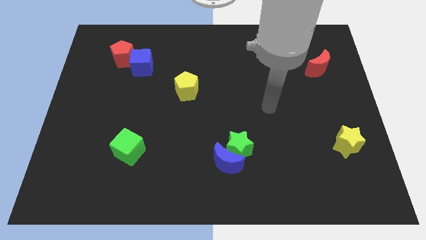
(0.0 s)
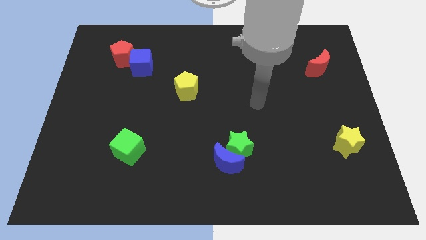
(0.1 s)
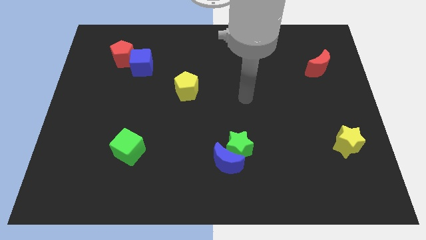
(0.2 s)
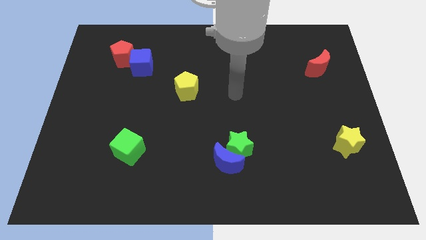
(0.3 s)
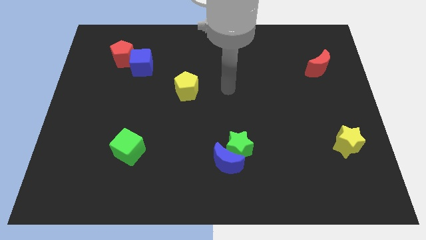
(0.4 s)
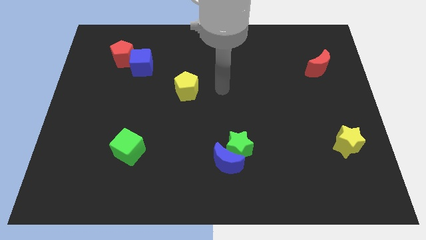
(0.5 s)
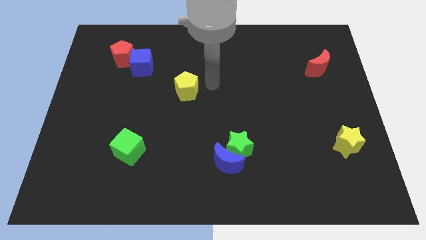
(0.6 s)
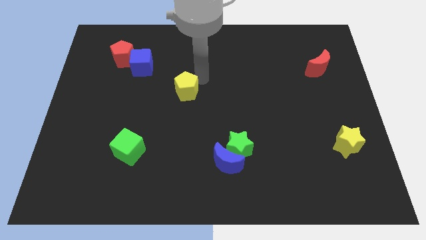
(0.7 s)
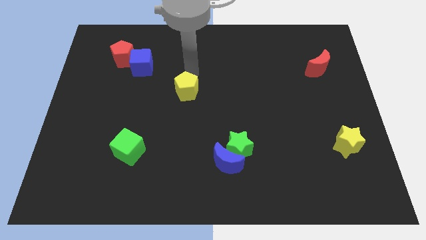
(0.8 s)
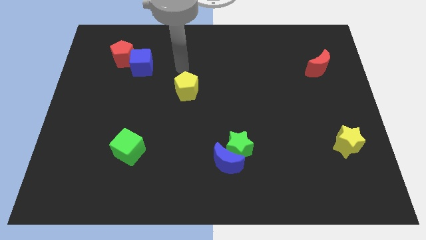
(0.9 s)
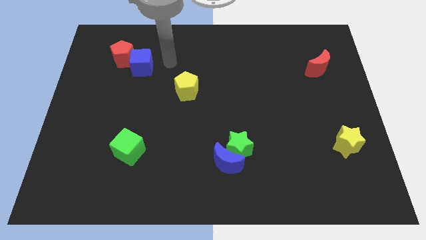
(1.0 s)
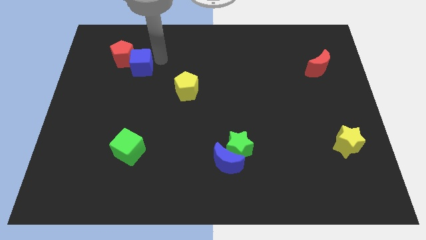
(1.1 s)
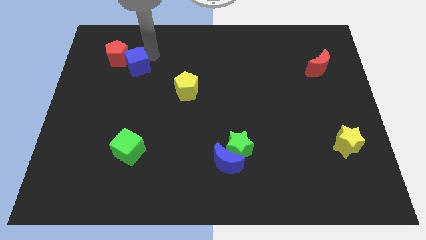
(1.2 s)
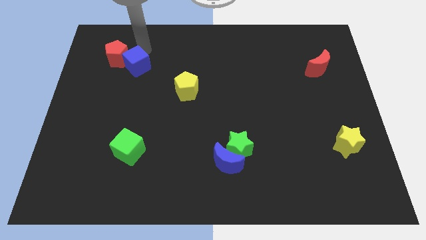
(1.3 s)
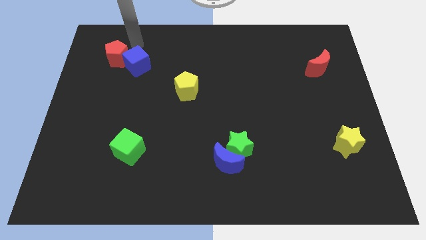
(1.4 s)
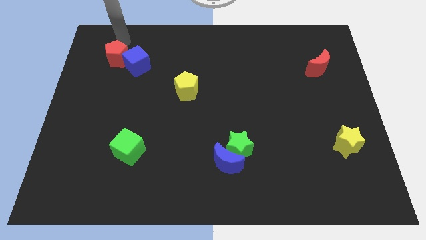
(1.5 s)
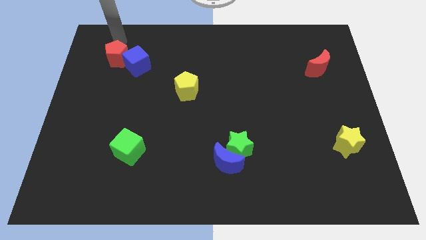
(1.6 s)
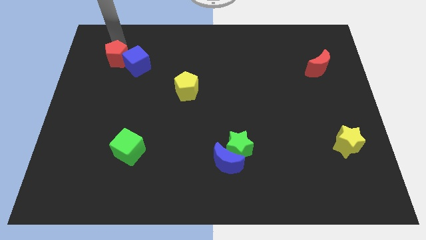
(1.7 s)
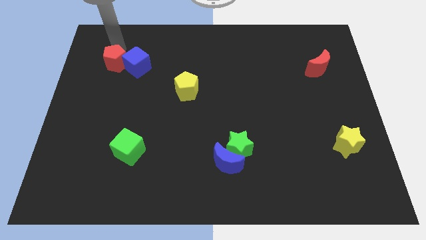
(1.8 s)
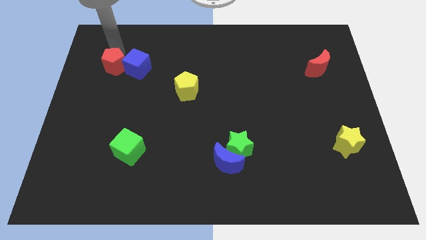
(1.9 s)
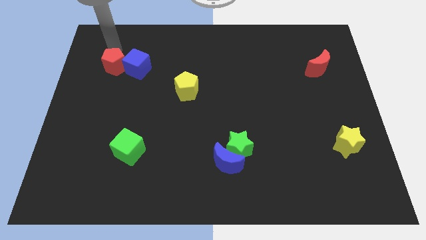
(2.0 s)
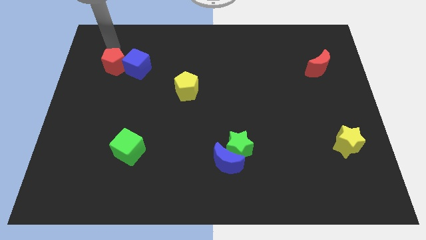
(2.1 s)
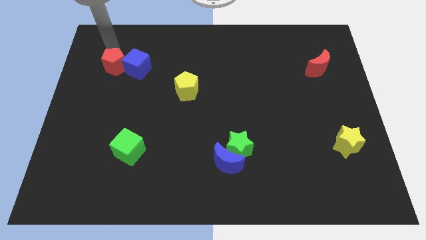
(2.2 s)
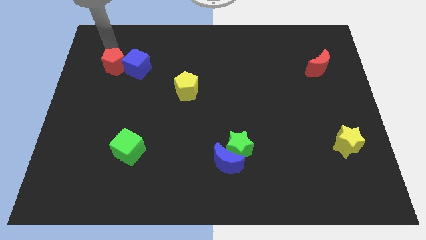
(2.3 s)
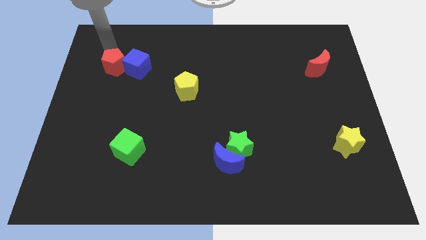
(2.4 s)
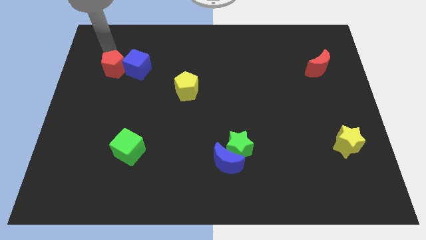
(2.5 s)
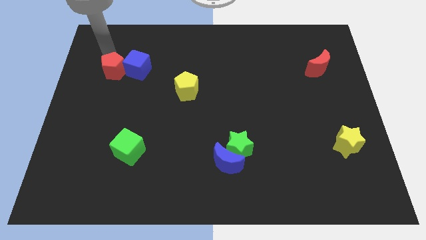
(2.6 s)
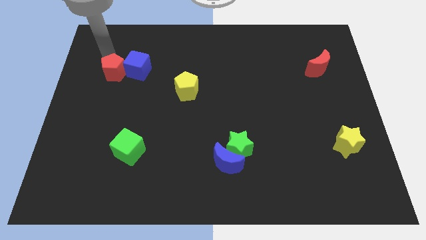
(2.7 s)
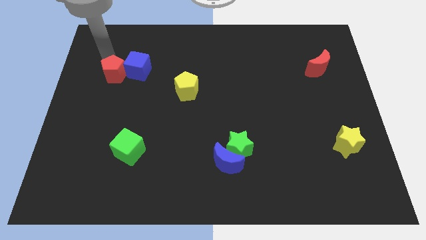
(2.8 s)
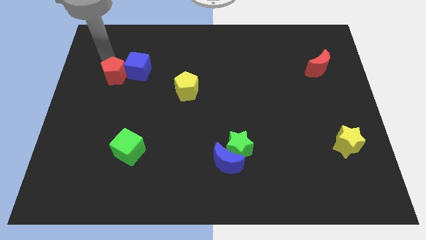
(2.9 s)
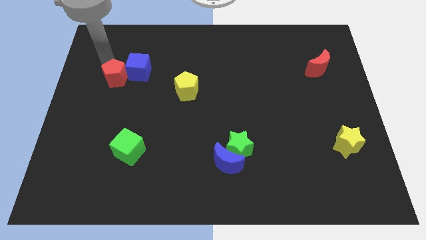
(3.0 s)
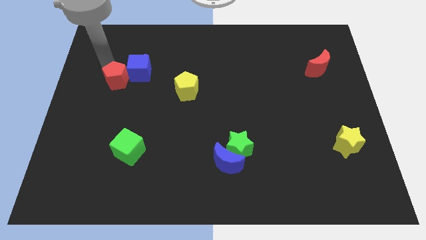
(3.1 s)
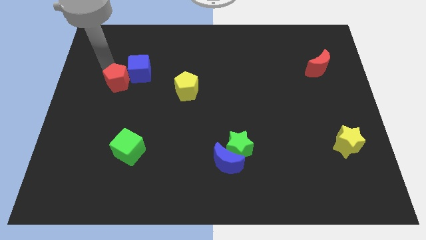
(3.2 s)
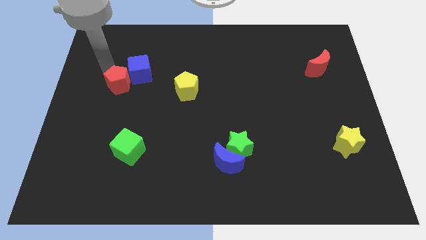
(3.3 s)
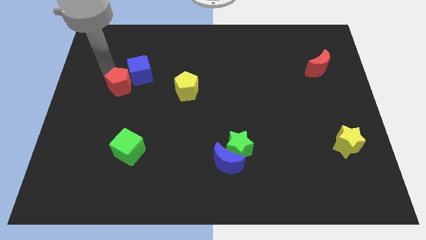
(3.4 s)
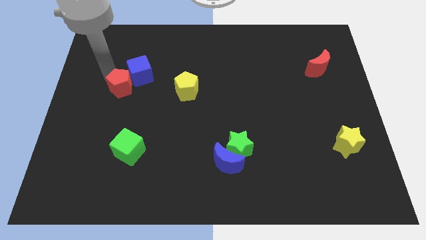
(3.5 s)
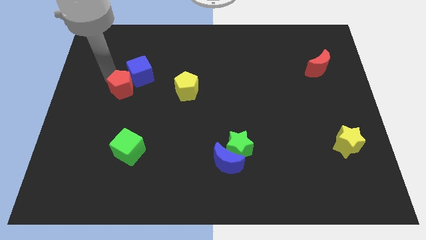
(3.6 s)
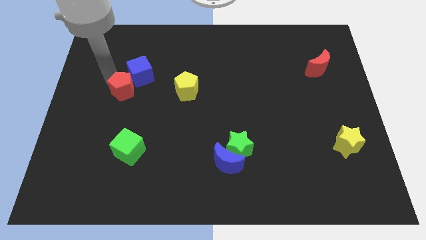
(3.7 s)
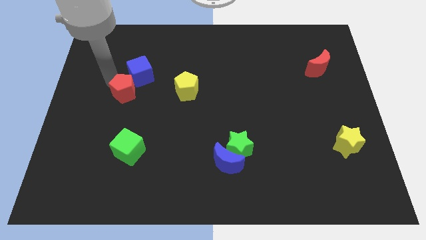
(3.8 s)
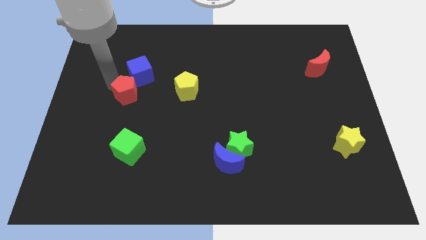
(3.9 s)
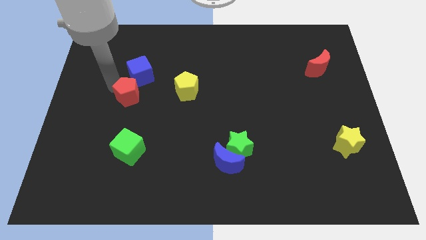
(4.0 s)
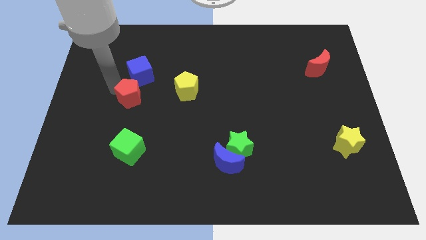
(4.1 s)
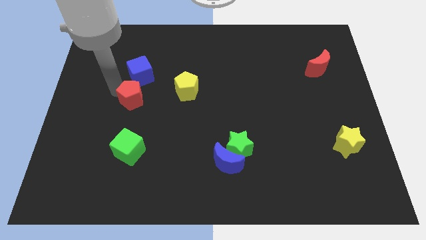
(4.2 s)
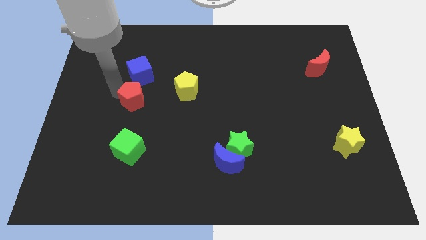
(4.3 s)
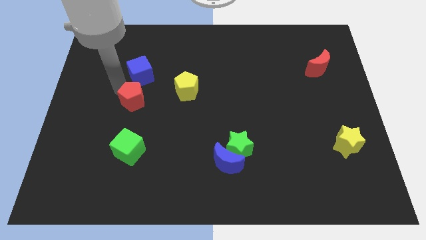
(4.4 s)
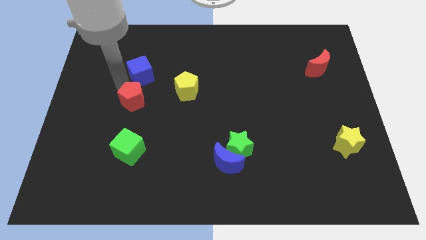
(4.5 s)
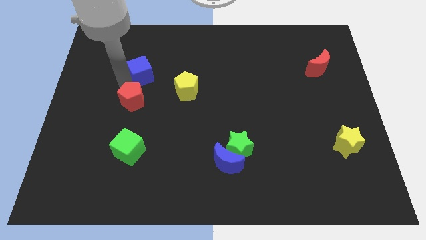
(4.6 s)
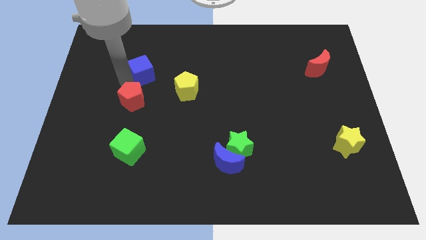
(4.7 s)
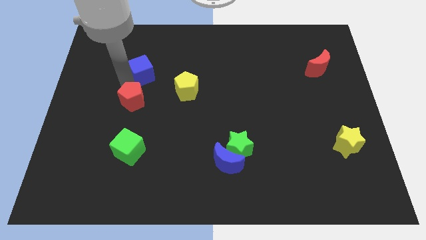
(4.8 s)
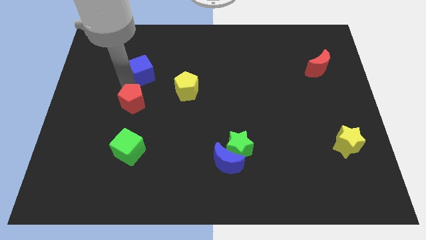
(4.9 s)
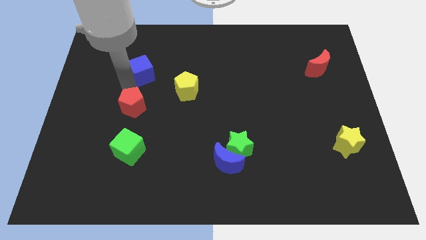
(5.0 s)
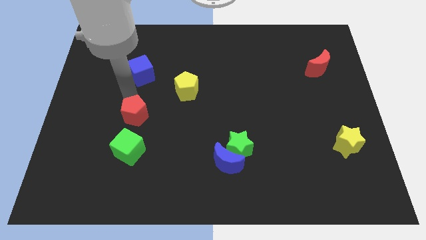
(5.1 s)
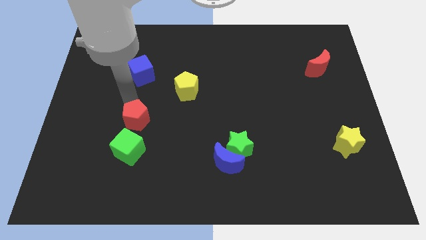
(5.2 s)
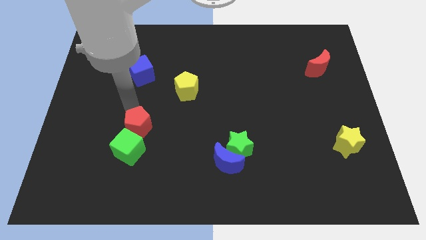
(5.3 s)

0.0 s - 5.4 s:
move the red pentagon to the top right side of the green cube

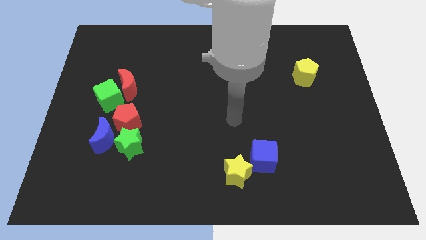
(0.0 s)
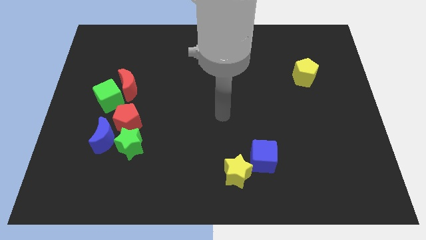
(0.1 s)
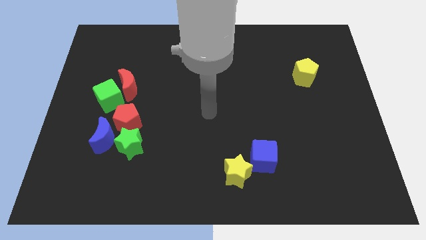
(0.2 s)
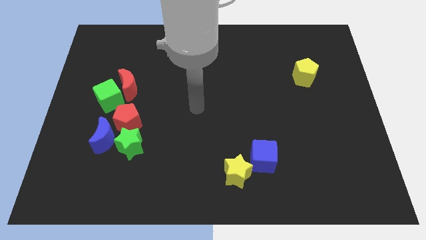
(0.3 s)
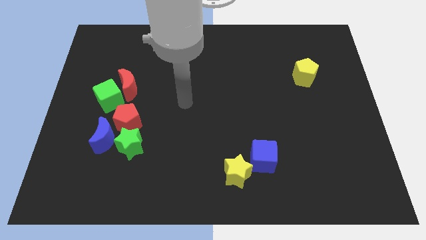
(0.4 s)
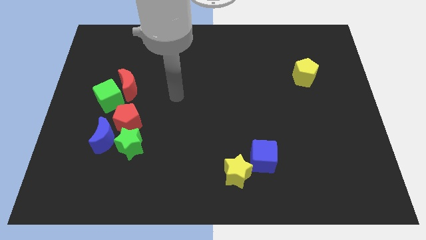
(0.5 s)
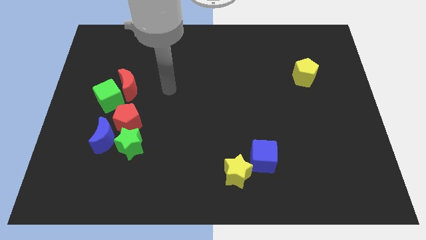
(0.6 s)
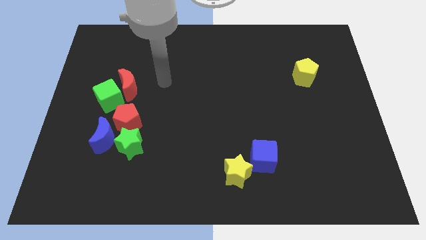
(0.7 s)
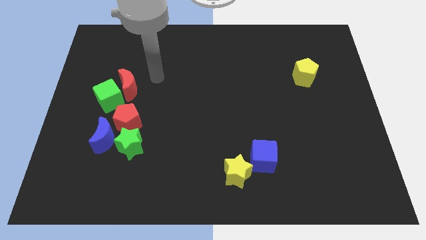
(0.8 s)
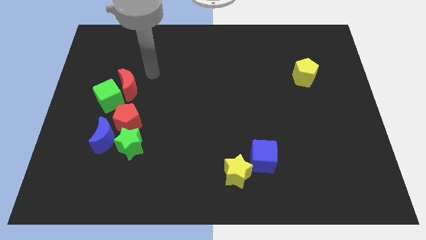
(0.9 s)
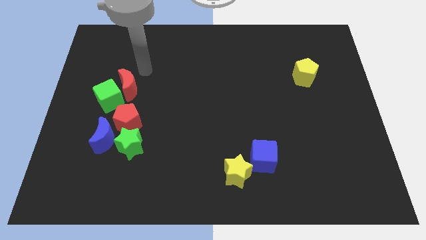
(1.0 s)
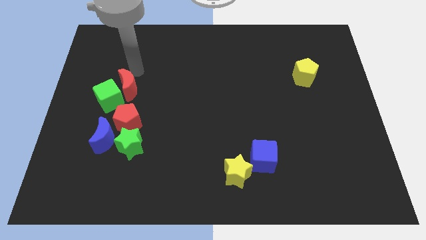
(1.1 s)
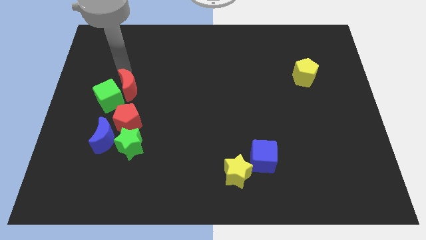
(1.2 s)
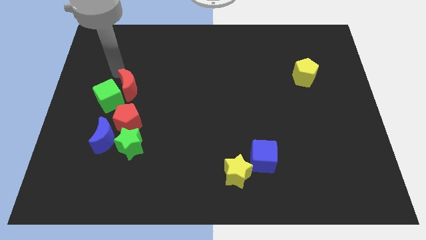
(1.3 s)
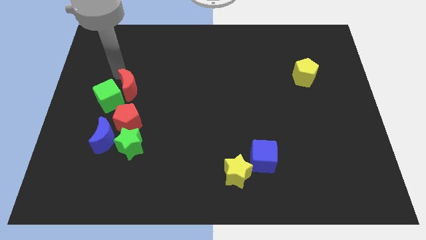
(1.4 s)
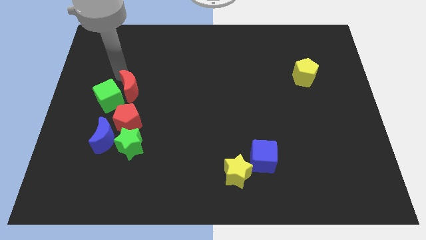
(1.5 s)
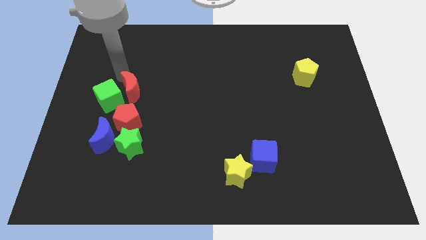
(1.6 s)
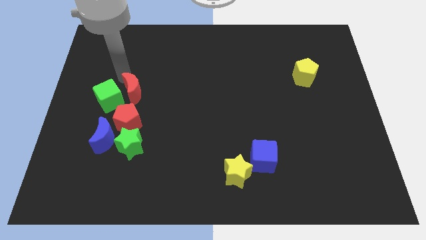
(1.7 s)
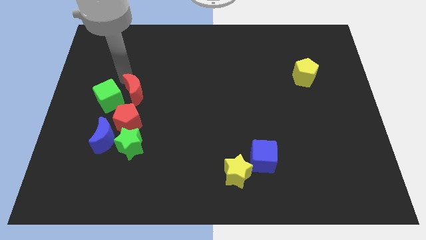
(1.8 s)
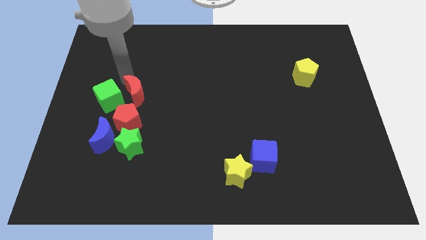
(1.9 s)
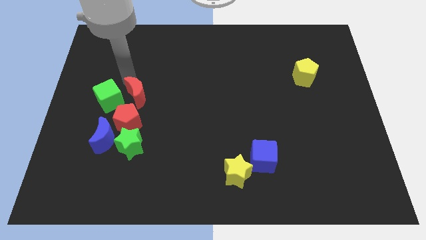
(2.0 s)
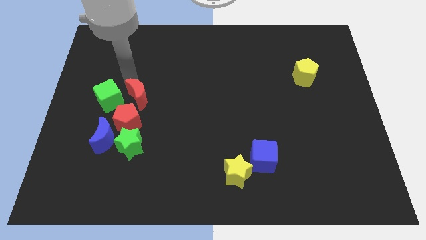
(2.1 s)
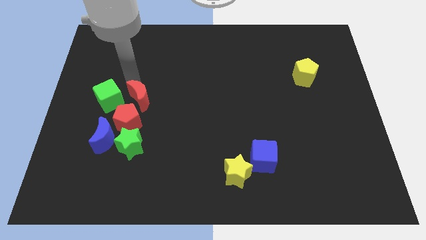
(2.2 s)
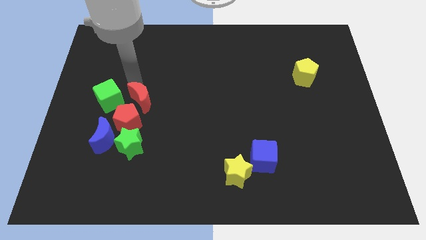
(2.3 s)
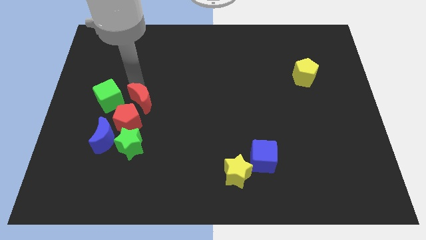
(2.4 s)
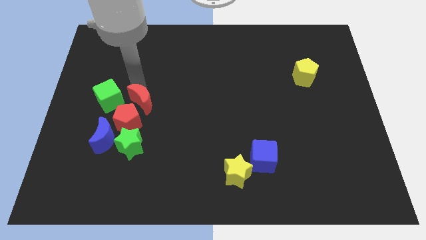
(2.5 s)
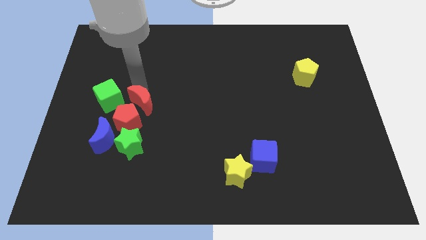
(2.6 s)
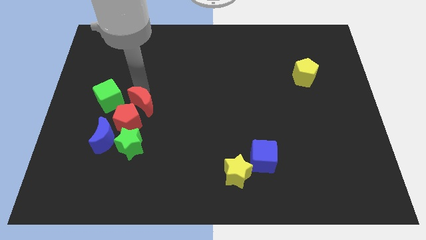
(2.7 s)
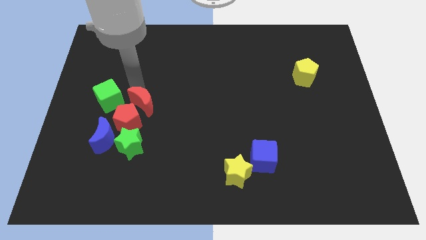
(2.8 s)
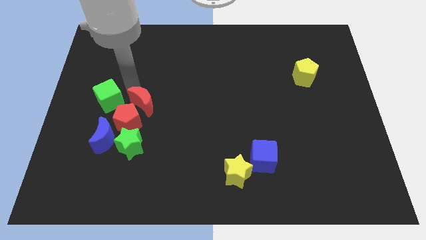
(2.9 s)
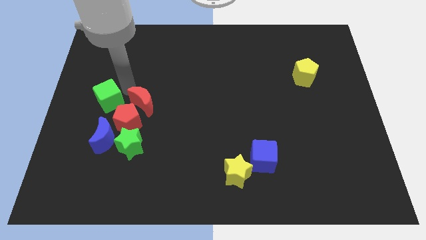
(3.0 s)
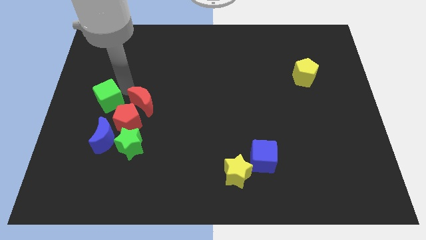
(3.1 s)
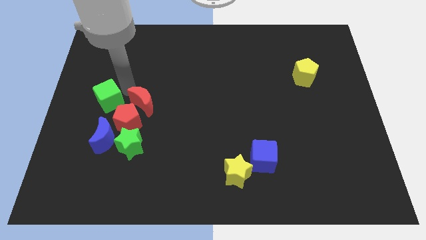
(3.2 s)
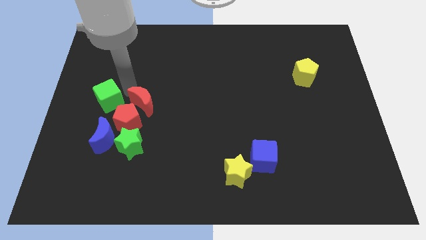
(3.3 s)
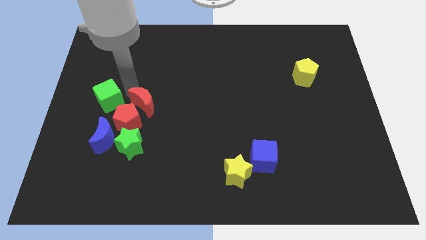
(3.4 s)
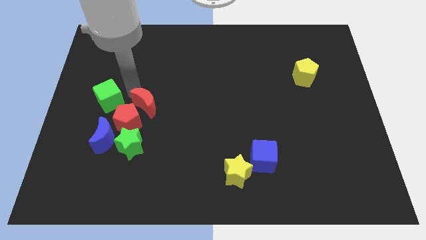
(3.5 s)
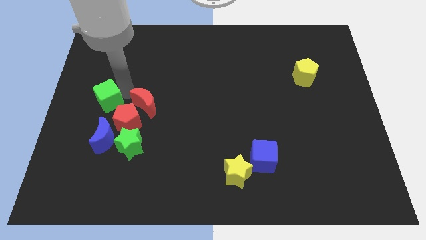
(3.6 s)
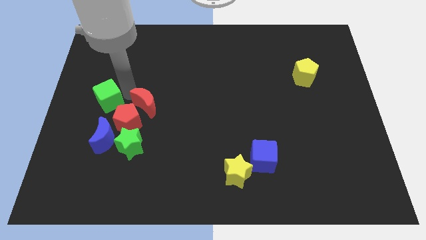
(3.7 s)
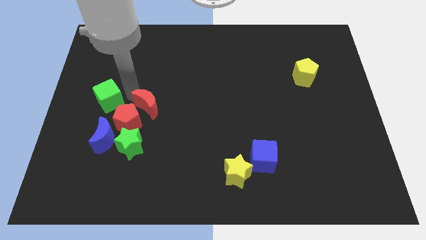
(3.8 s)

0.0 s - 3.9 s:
slide the red moon to the right side of the red pentagon
